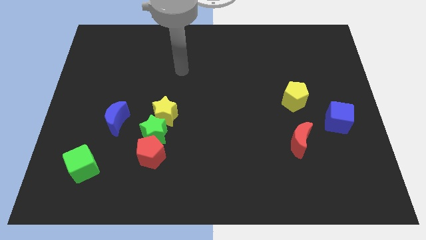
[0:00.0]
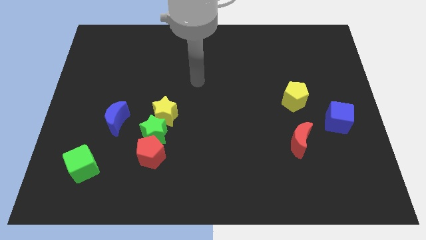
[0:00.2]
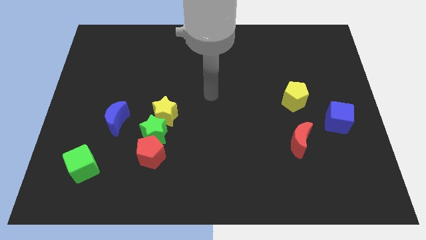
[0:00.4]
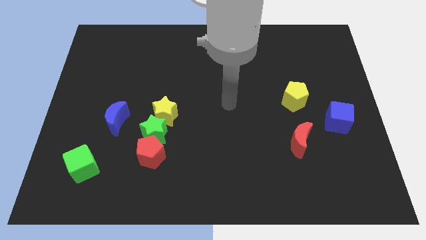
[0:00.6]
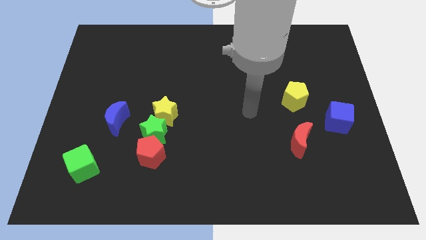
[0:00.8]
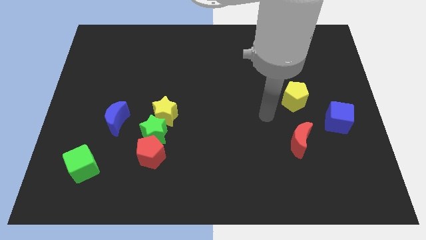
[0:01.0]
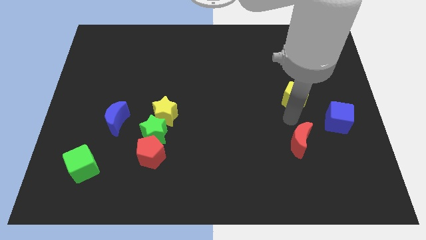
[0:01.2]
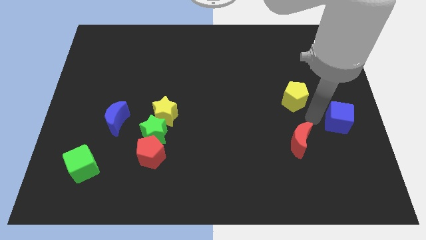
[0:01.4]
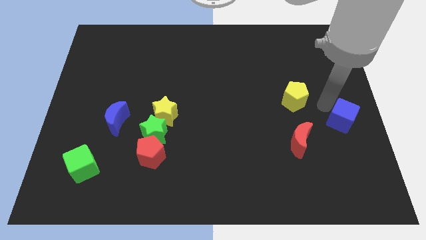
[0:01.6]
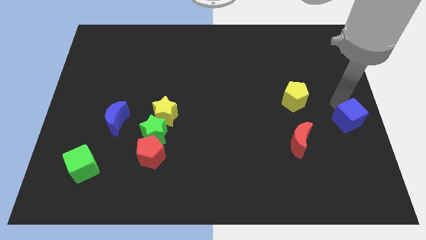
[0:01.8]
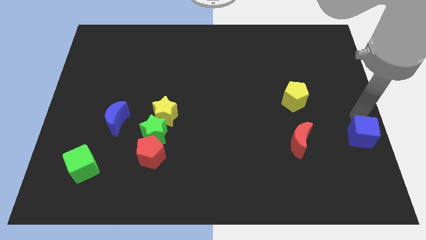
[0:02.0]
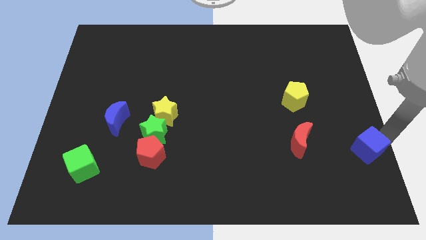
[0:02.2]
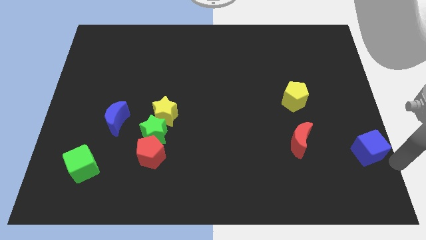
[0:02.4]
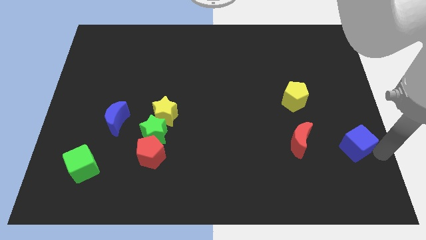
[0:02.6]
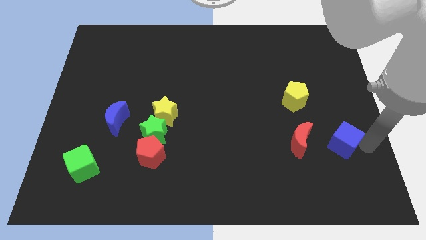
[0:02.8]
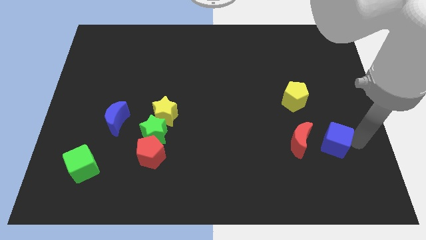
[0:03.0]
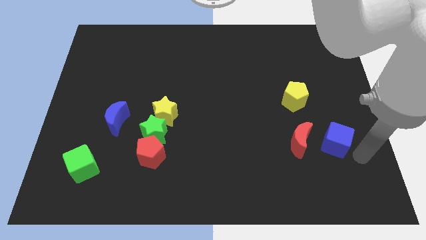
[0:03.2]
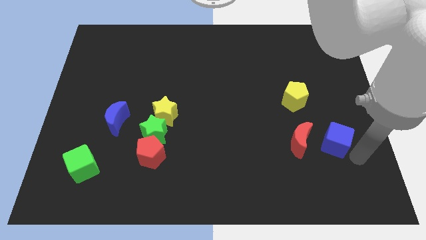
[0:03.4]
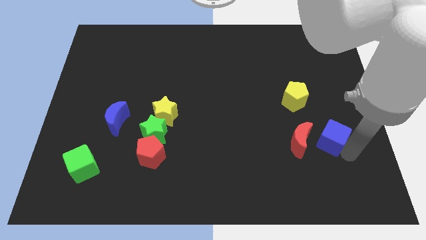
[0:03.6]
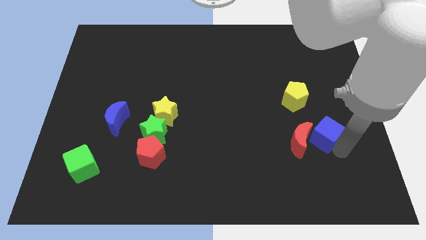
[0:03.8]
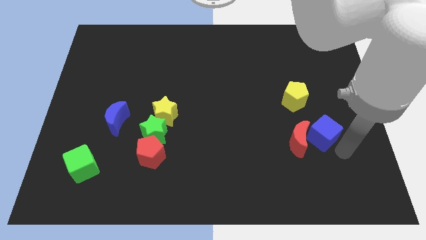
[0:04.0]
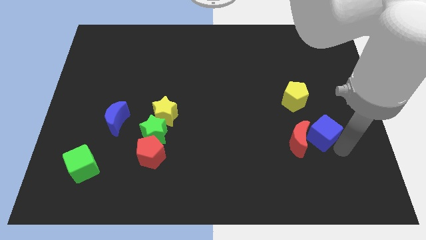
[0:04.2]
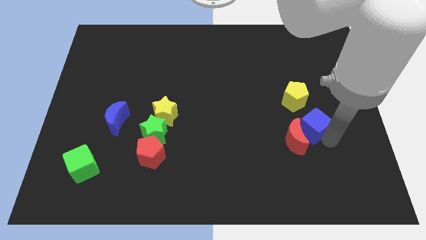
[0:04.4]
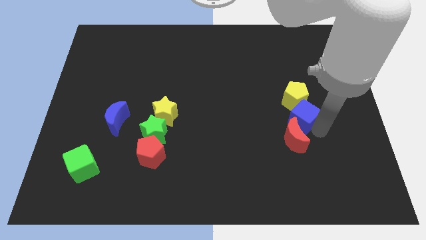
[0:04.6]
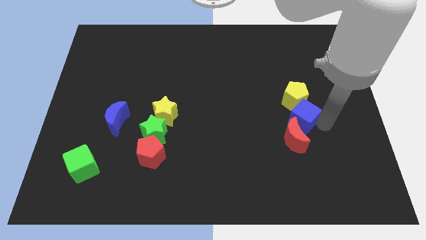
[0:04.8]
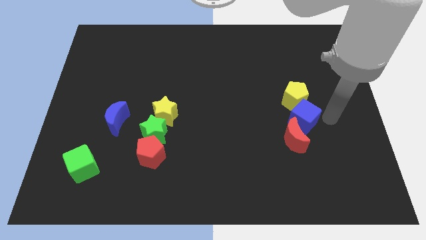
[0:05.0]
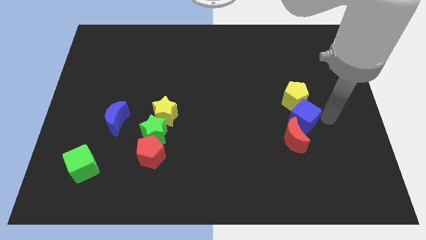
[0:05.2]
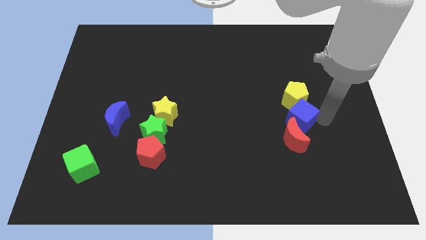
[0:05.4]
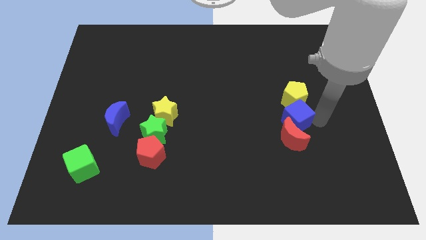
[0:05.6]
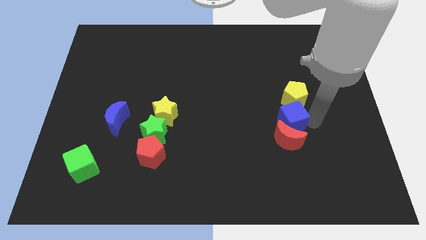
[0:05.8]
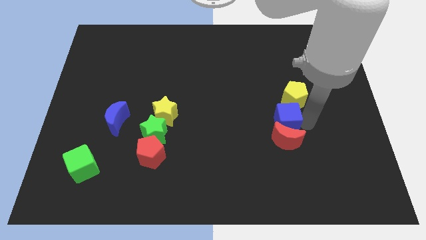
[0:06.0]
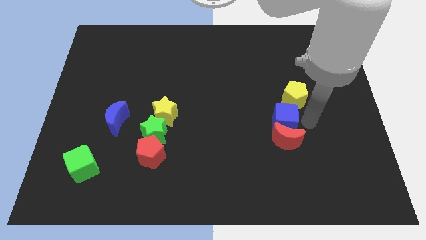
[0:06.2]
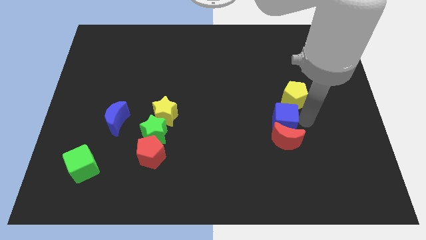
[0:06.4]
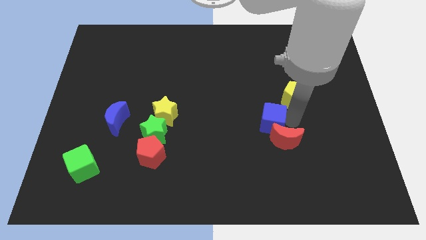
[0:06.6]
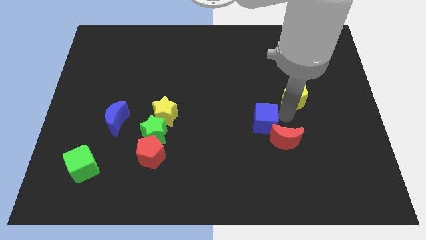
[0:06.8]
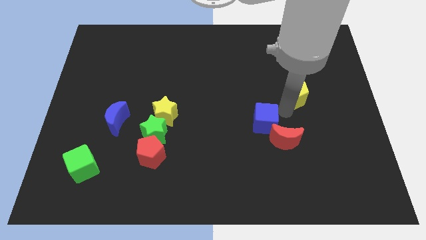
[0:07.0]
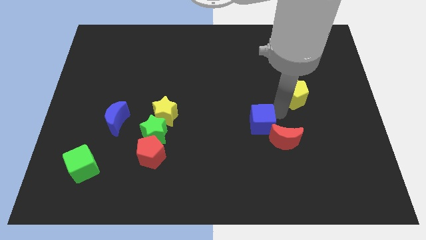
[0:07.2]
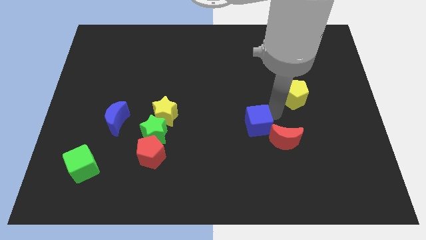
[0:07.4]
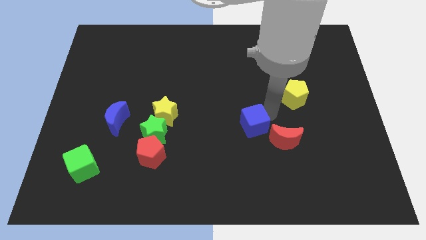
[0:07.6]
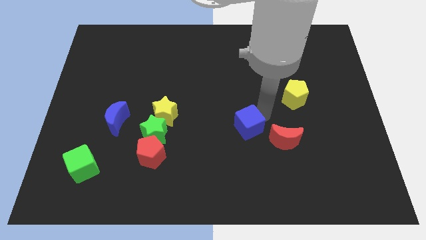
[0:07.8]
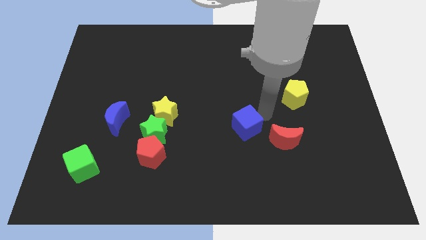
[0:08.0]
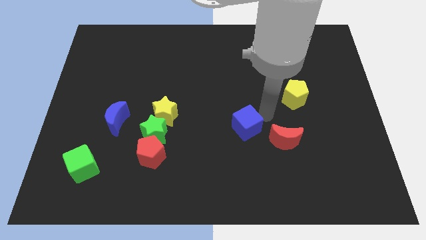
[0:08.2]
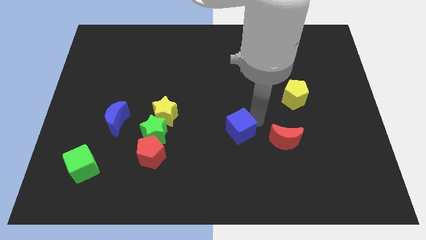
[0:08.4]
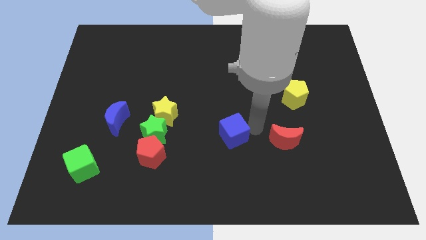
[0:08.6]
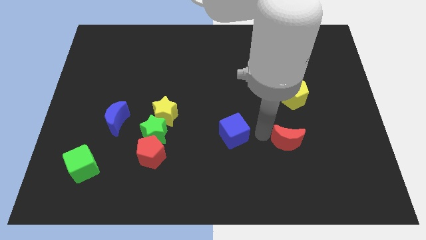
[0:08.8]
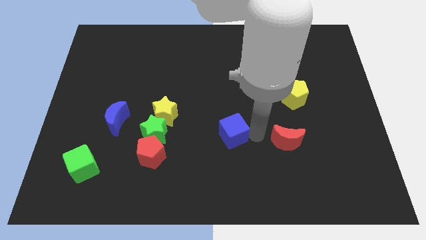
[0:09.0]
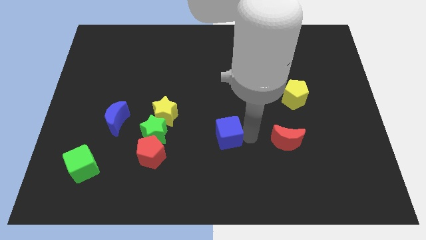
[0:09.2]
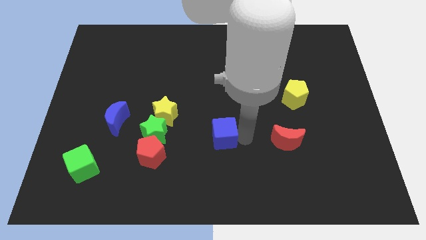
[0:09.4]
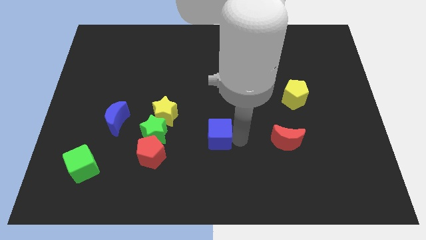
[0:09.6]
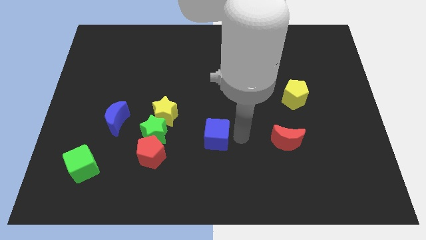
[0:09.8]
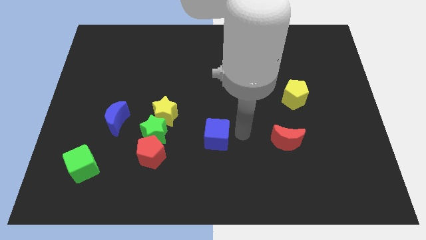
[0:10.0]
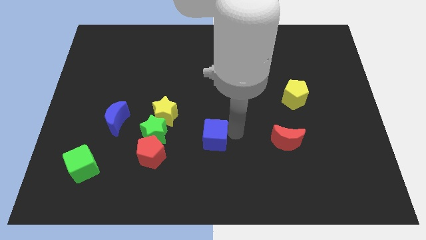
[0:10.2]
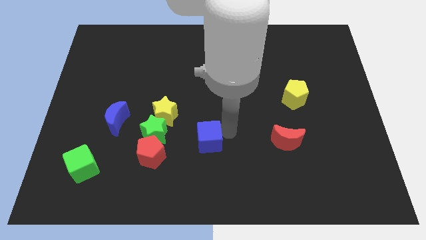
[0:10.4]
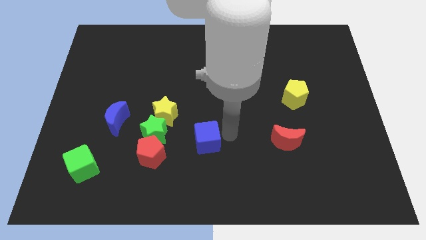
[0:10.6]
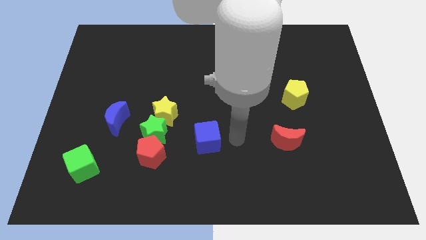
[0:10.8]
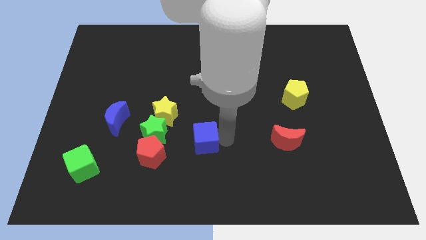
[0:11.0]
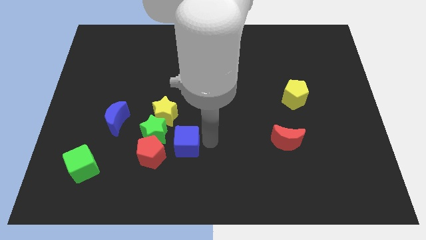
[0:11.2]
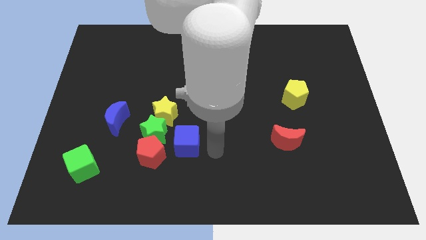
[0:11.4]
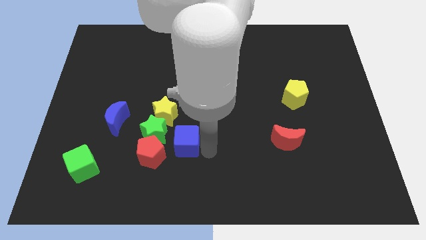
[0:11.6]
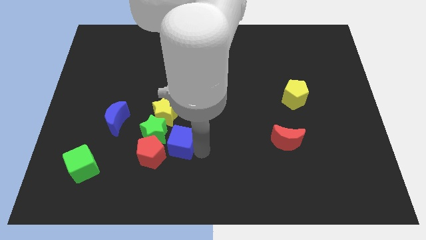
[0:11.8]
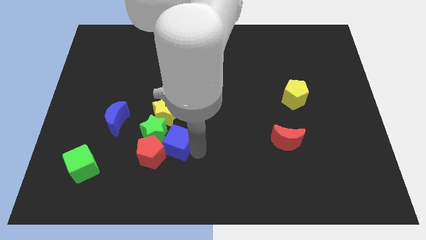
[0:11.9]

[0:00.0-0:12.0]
put the blue cube next to the green star

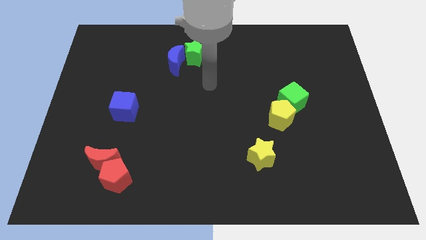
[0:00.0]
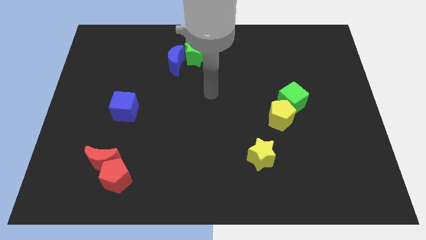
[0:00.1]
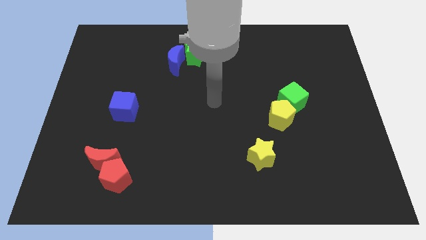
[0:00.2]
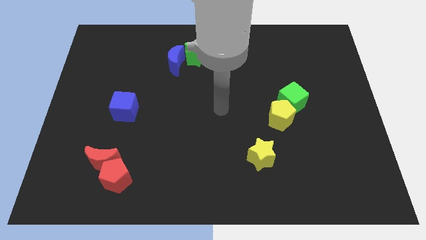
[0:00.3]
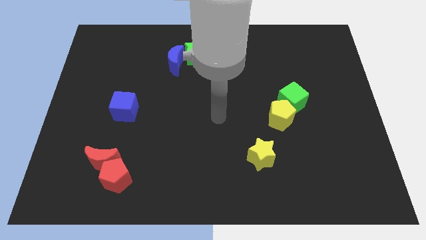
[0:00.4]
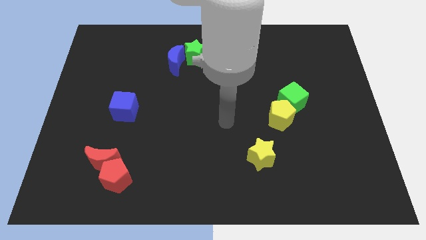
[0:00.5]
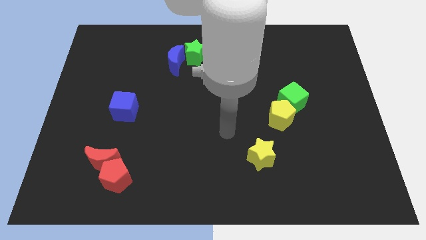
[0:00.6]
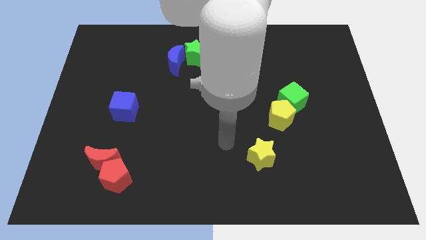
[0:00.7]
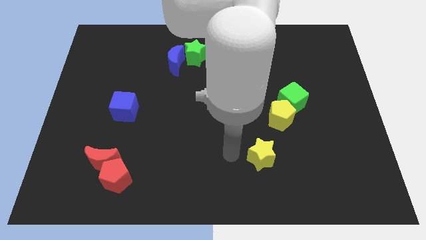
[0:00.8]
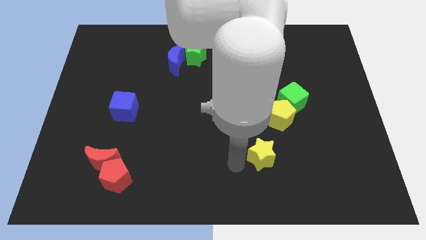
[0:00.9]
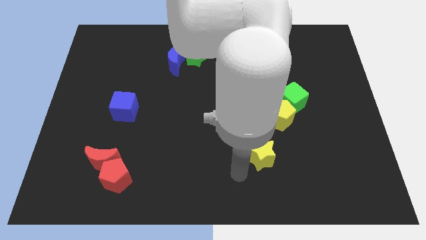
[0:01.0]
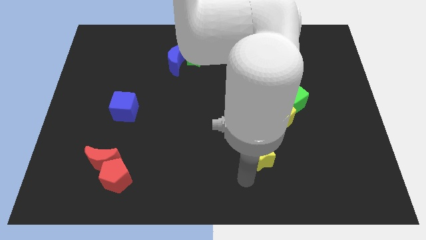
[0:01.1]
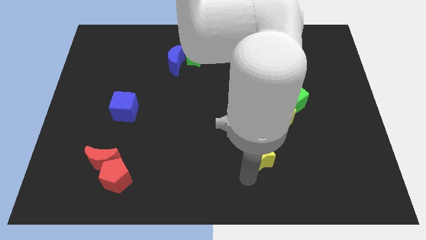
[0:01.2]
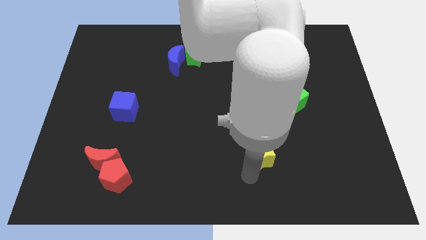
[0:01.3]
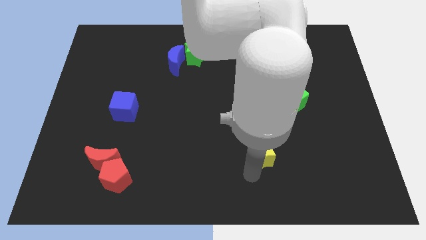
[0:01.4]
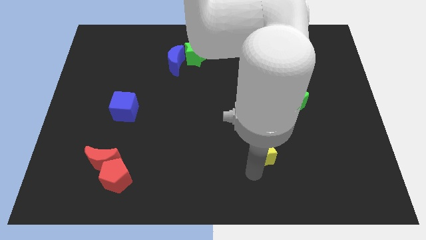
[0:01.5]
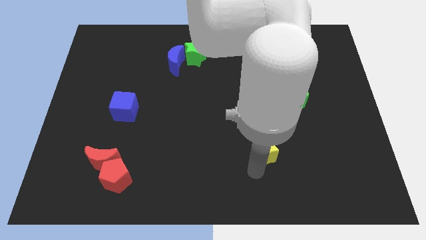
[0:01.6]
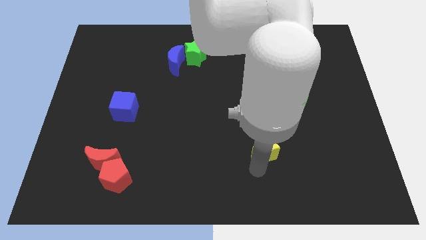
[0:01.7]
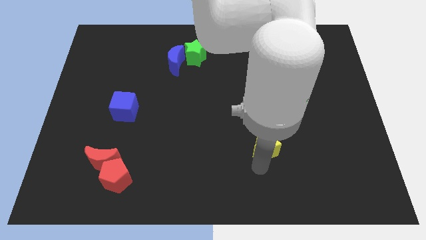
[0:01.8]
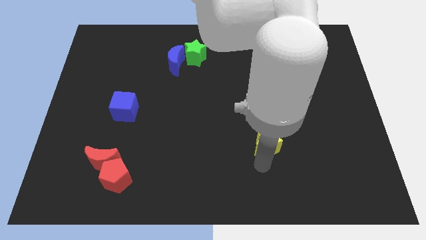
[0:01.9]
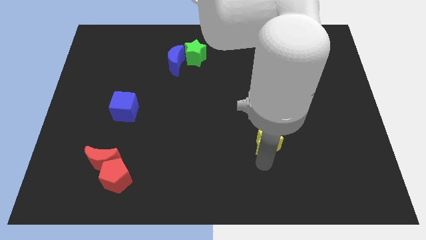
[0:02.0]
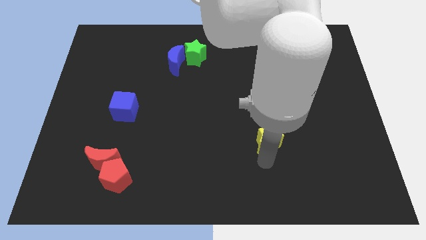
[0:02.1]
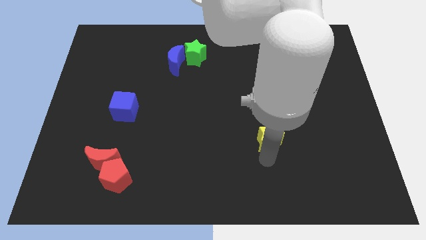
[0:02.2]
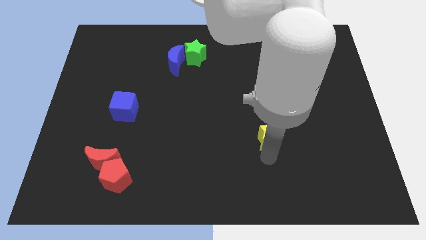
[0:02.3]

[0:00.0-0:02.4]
push the yellow star towards the yellow pentagon
